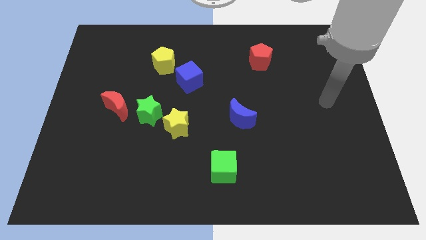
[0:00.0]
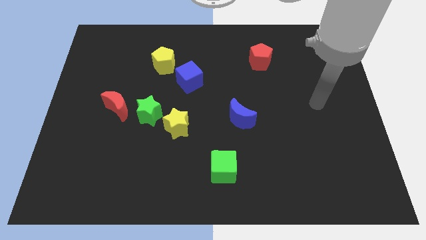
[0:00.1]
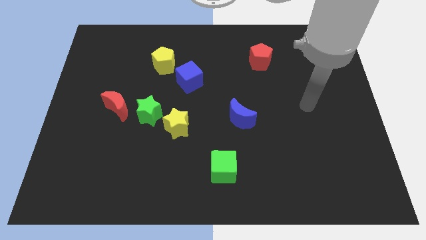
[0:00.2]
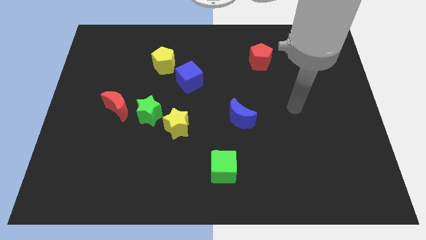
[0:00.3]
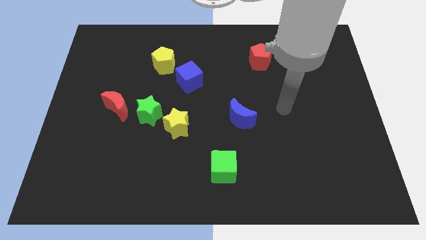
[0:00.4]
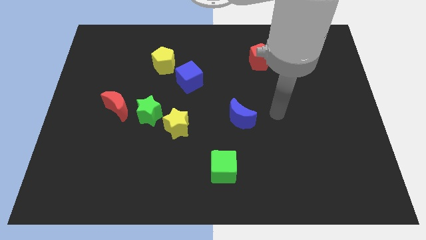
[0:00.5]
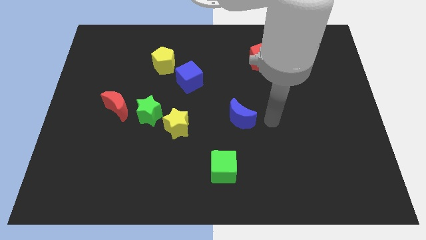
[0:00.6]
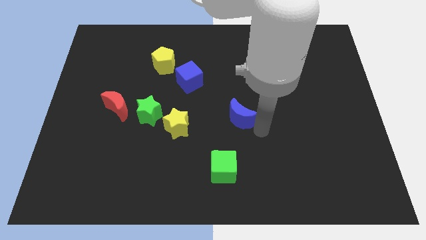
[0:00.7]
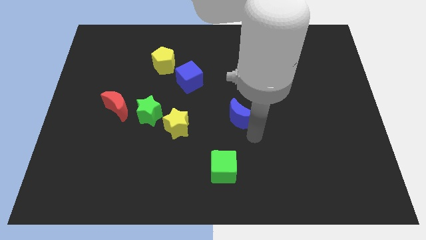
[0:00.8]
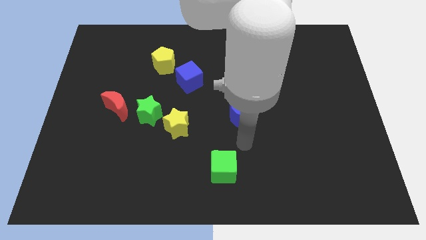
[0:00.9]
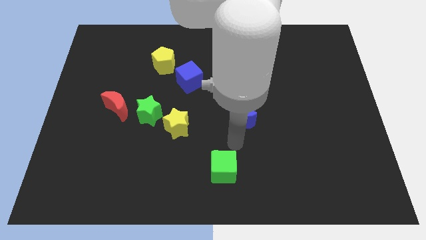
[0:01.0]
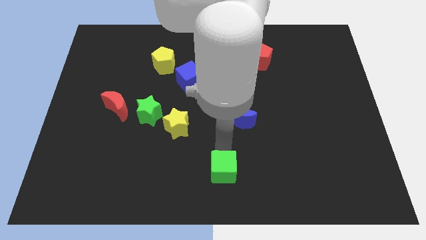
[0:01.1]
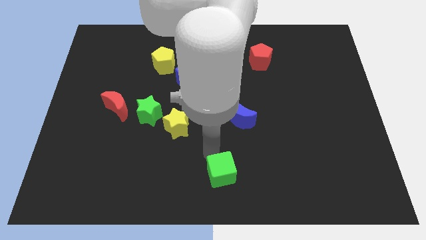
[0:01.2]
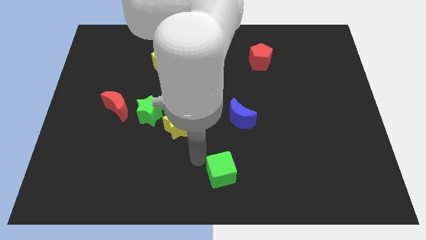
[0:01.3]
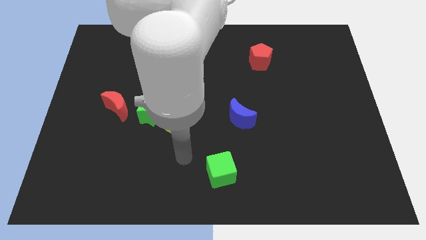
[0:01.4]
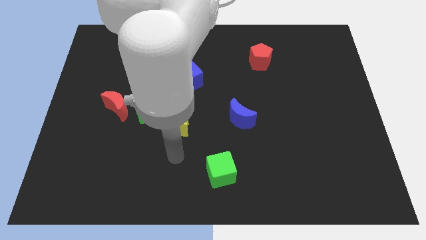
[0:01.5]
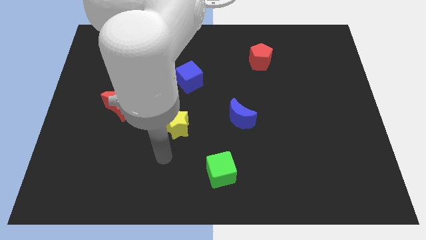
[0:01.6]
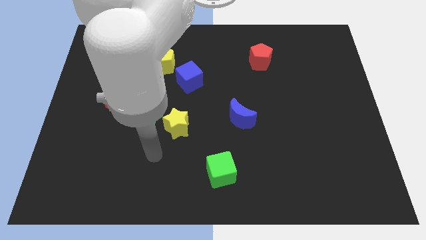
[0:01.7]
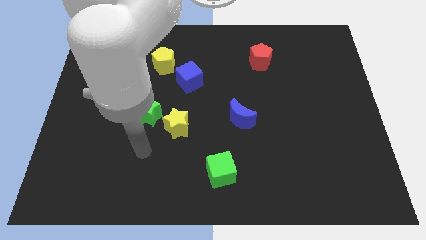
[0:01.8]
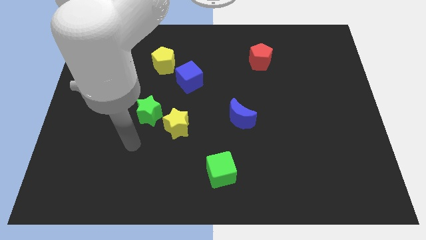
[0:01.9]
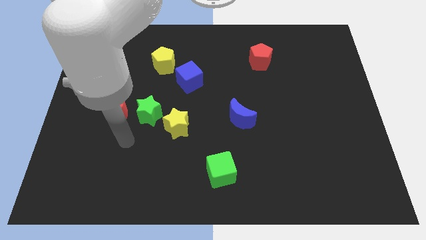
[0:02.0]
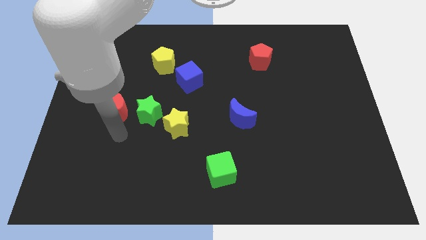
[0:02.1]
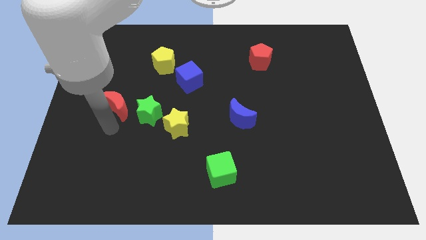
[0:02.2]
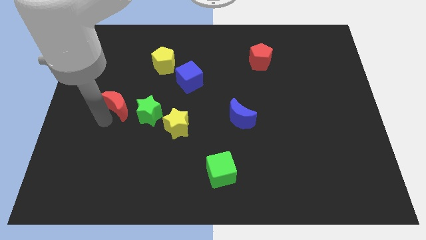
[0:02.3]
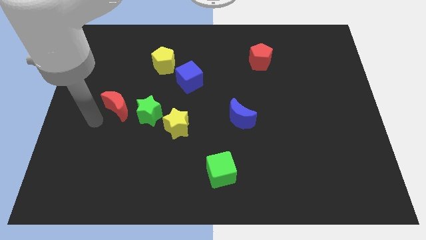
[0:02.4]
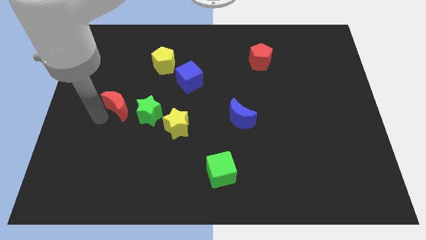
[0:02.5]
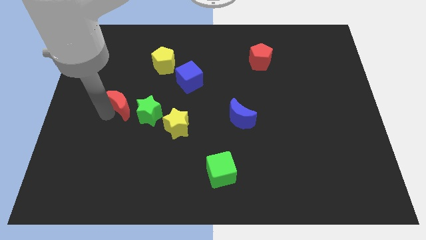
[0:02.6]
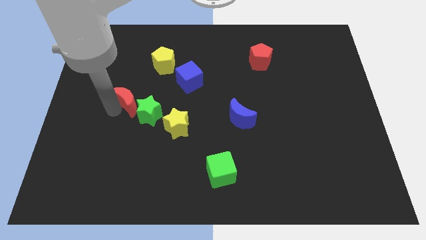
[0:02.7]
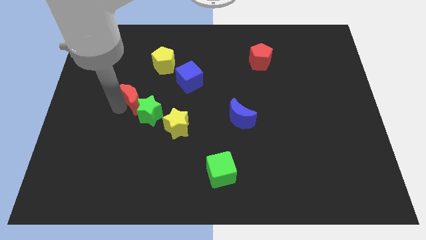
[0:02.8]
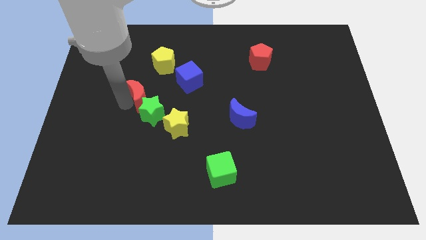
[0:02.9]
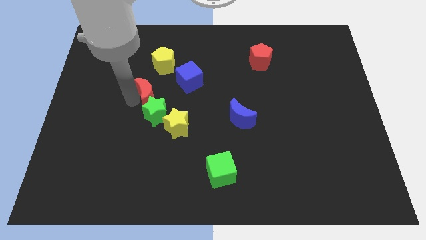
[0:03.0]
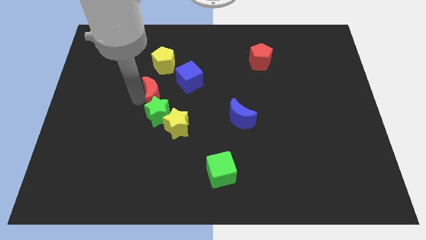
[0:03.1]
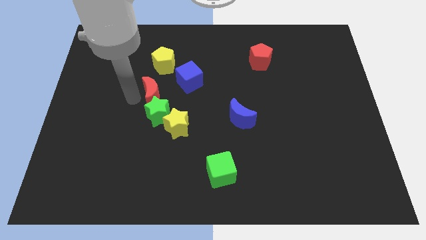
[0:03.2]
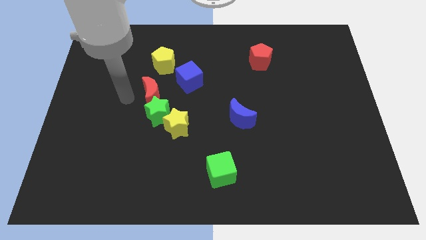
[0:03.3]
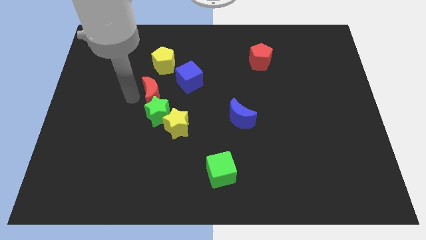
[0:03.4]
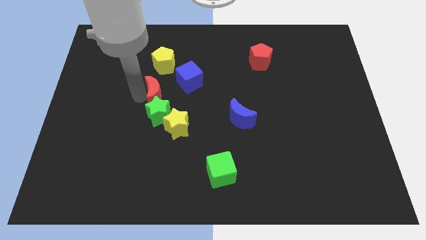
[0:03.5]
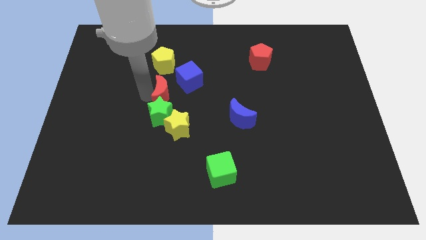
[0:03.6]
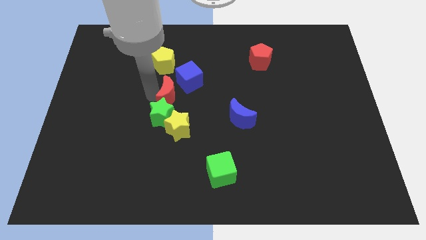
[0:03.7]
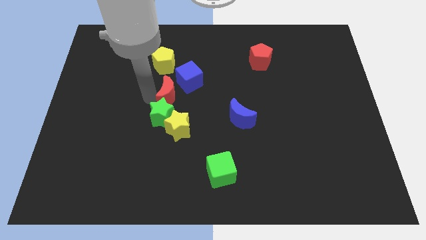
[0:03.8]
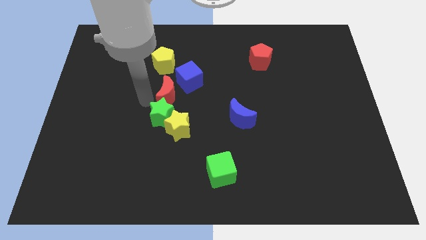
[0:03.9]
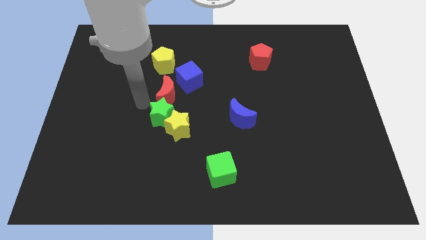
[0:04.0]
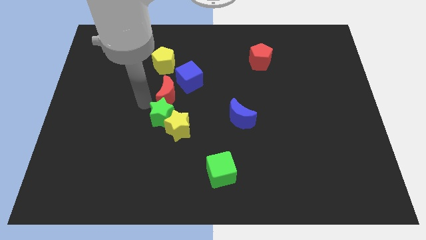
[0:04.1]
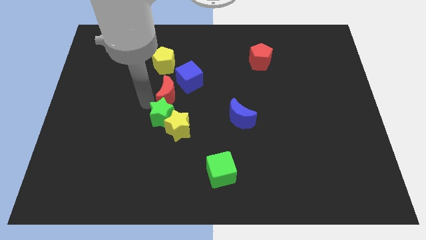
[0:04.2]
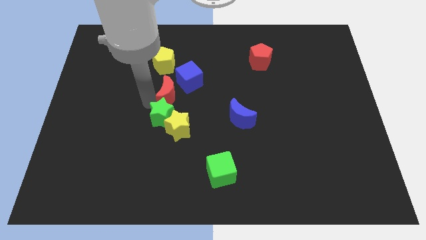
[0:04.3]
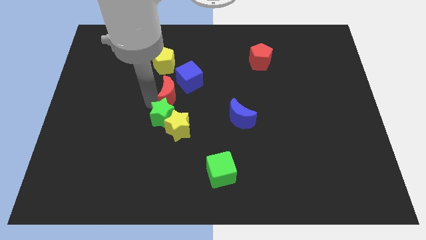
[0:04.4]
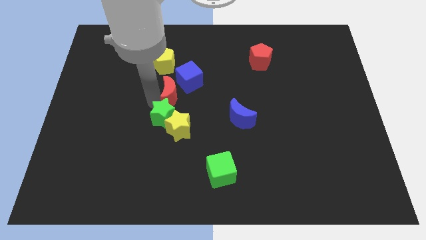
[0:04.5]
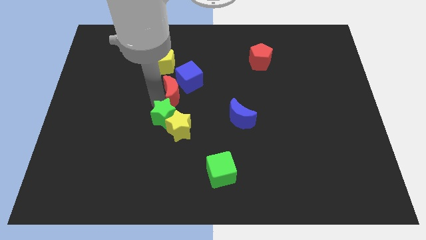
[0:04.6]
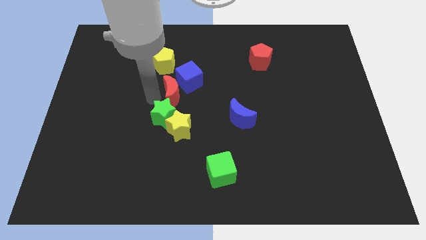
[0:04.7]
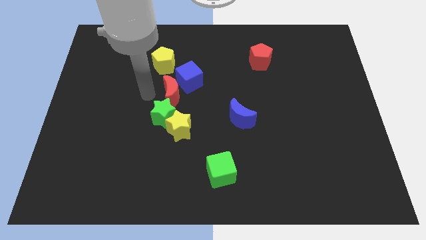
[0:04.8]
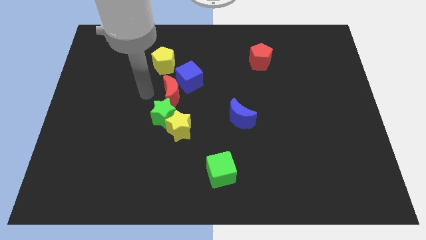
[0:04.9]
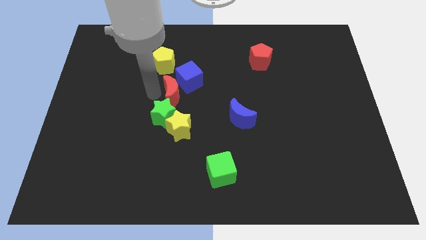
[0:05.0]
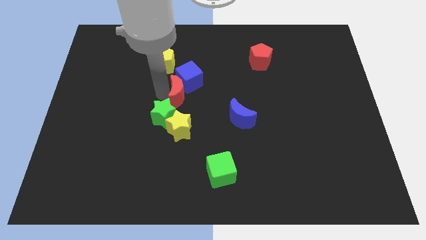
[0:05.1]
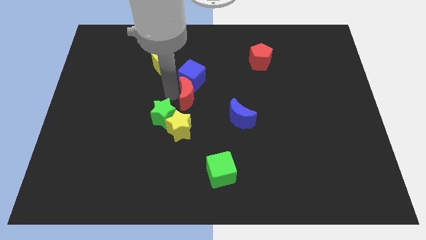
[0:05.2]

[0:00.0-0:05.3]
slide the red moon to the bottom right side of the blue cube

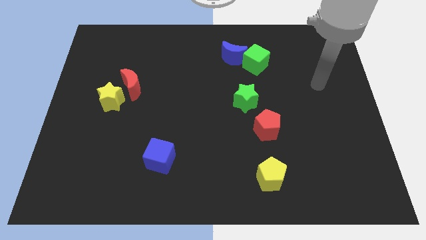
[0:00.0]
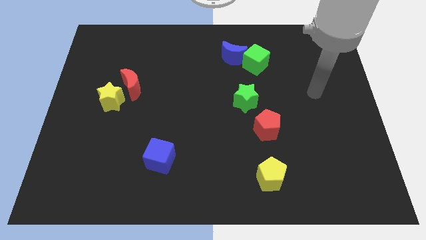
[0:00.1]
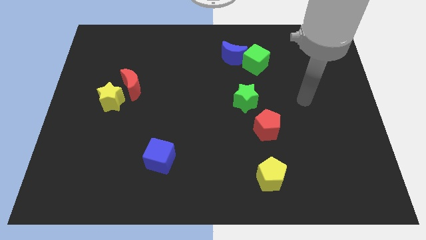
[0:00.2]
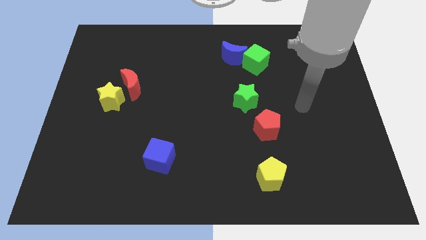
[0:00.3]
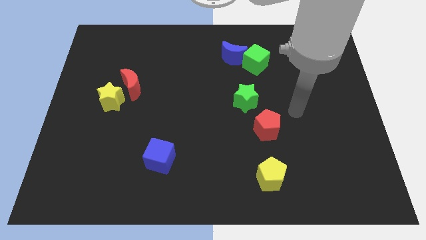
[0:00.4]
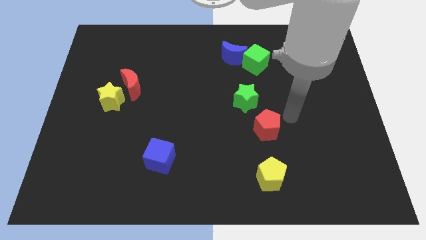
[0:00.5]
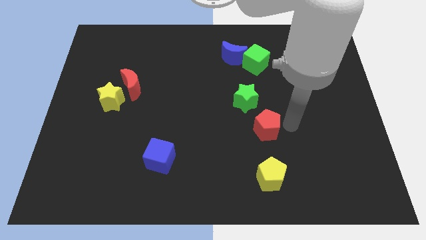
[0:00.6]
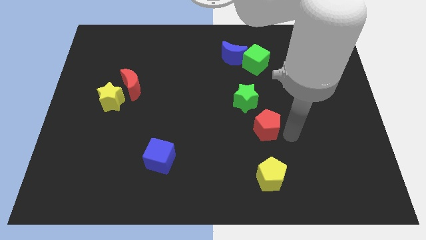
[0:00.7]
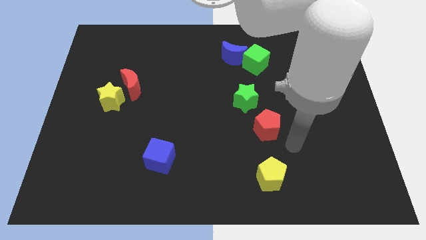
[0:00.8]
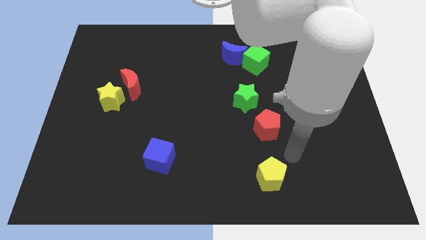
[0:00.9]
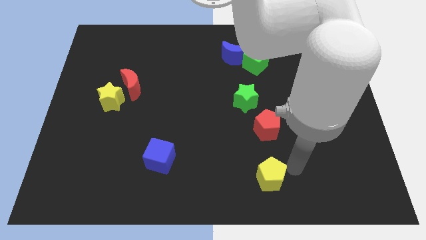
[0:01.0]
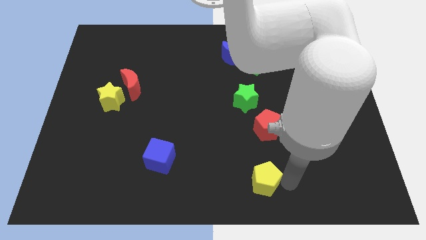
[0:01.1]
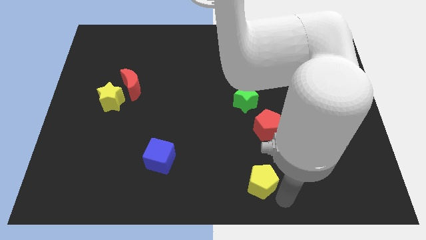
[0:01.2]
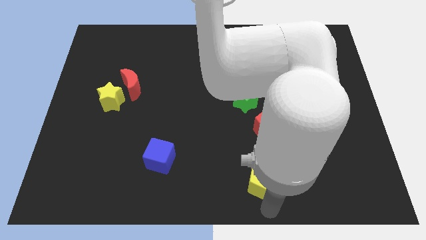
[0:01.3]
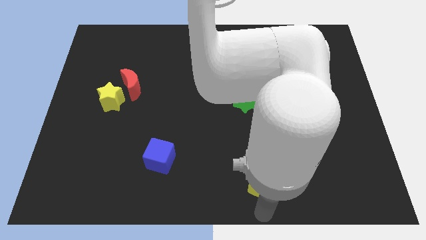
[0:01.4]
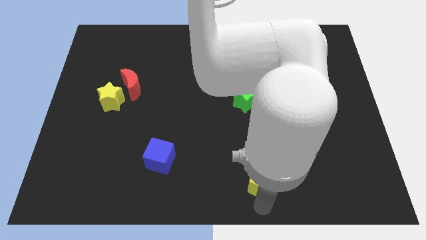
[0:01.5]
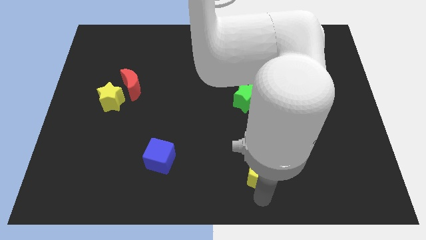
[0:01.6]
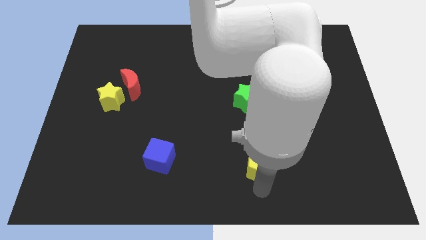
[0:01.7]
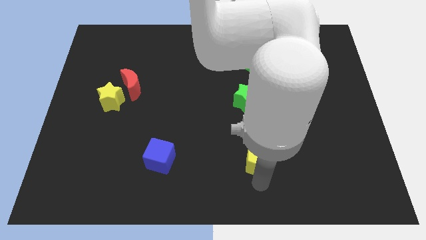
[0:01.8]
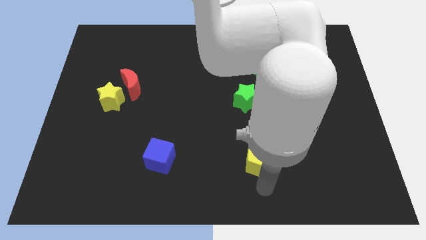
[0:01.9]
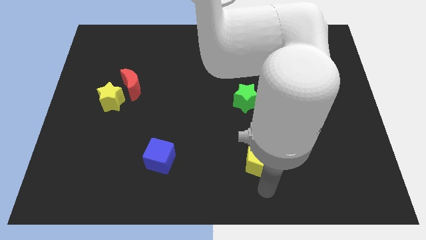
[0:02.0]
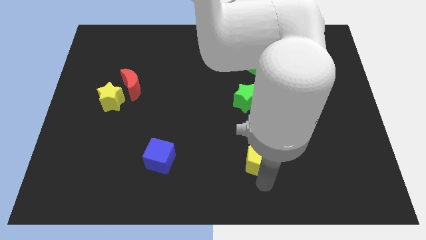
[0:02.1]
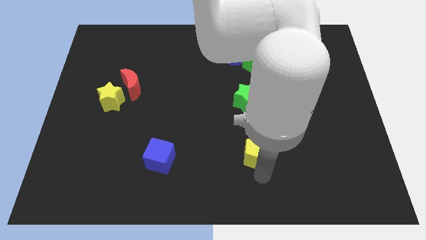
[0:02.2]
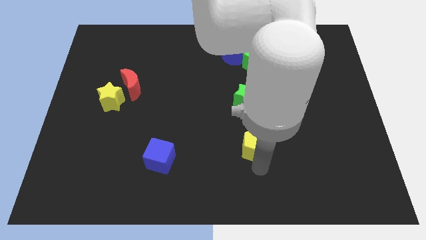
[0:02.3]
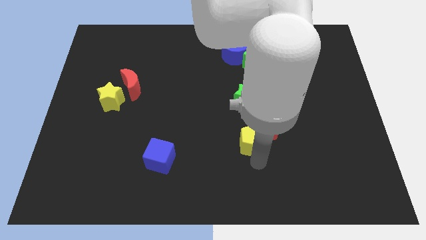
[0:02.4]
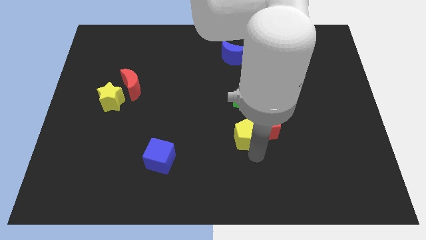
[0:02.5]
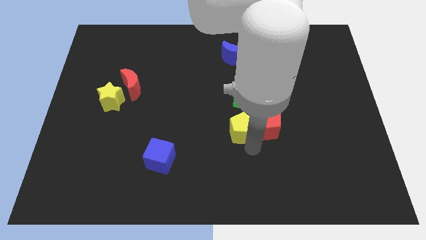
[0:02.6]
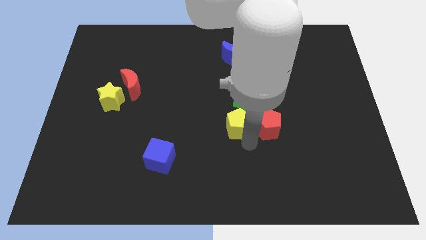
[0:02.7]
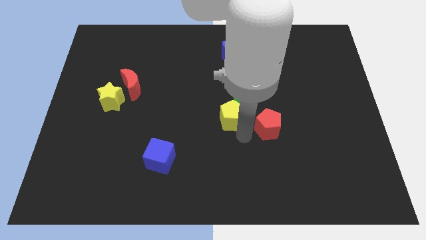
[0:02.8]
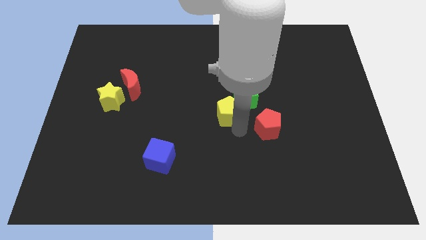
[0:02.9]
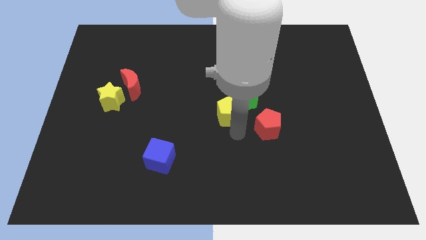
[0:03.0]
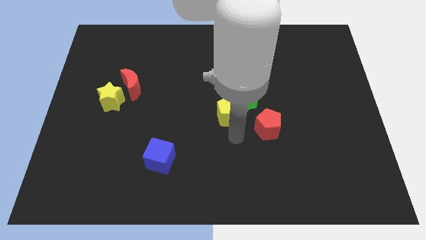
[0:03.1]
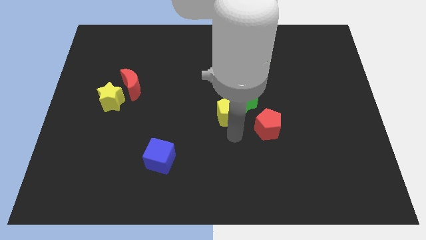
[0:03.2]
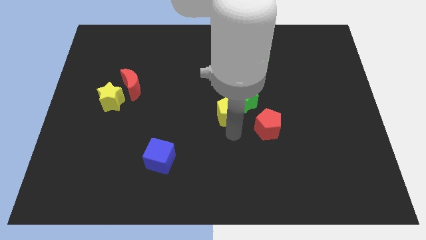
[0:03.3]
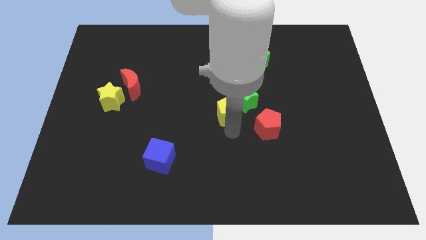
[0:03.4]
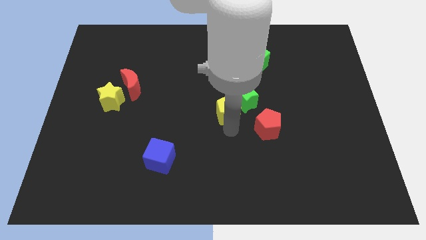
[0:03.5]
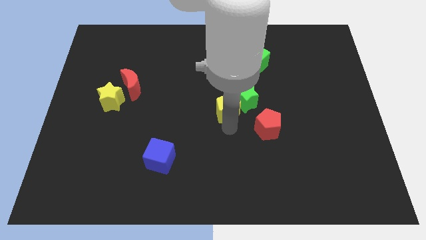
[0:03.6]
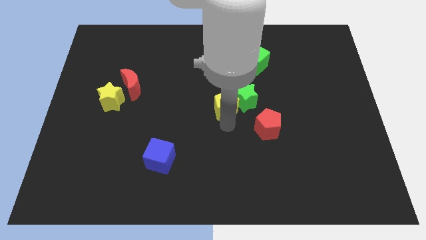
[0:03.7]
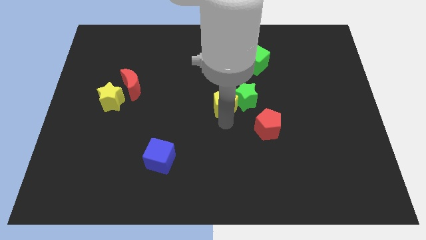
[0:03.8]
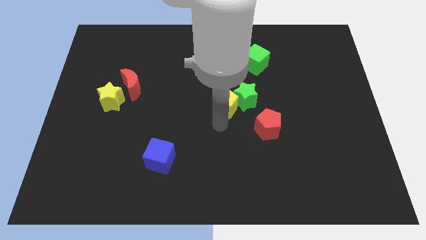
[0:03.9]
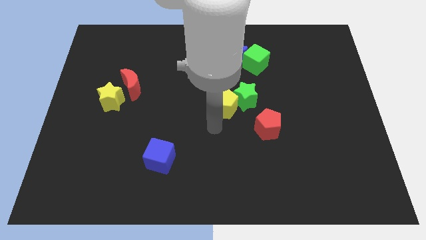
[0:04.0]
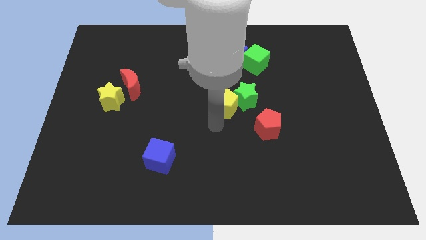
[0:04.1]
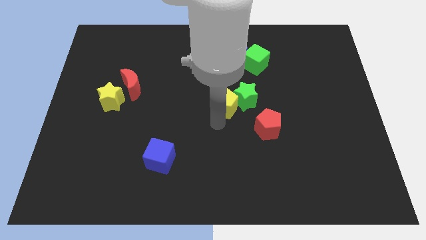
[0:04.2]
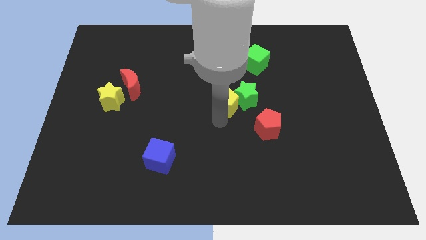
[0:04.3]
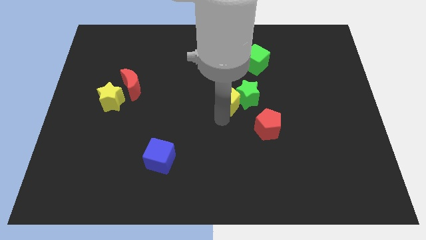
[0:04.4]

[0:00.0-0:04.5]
slide the yellow pentagon to the bottom side of the blue moon
